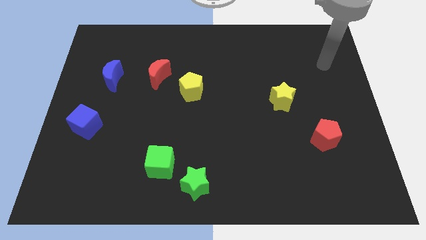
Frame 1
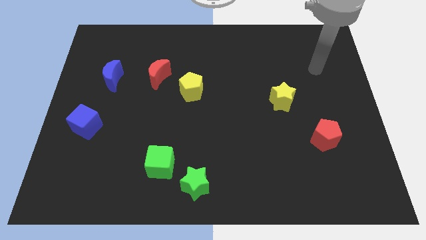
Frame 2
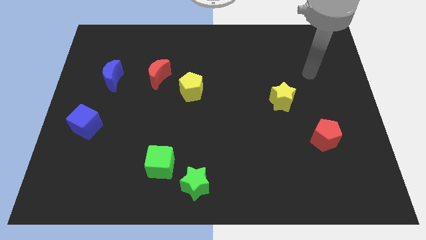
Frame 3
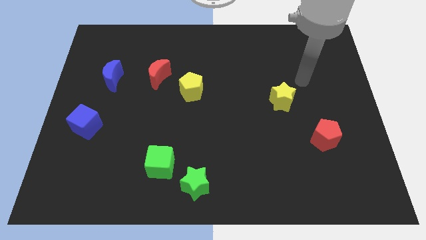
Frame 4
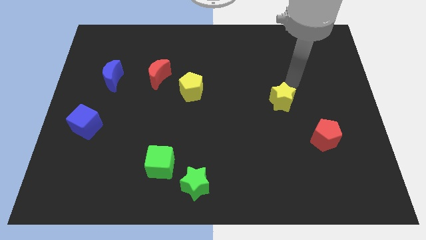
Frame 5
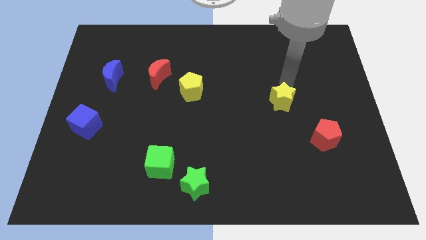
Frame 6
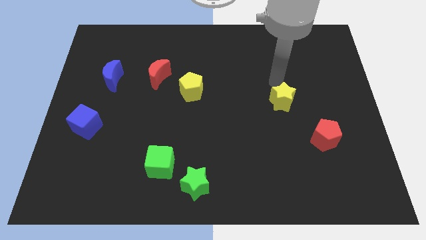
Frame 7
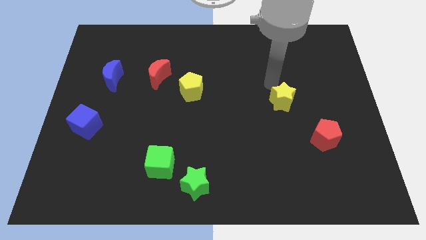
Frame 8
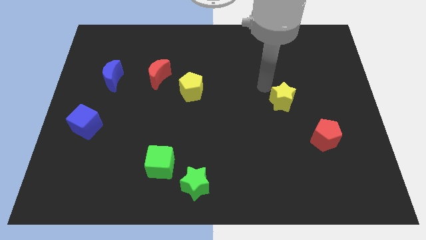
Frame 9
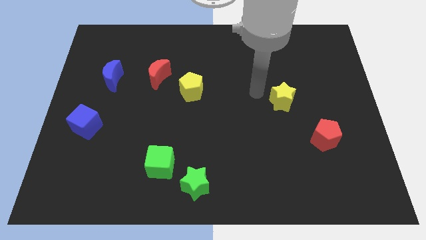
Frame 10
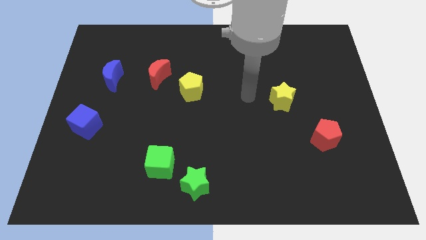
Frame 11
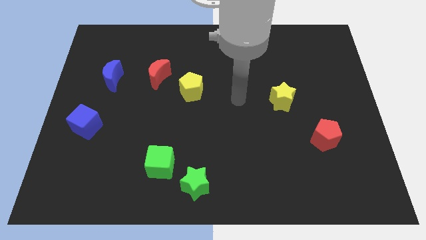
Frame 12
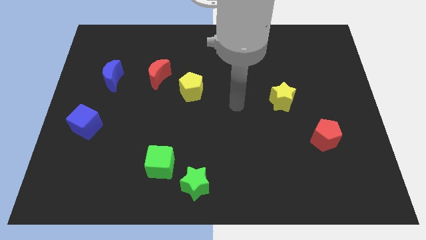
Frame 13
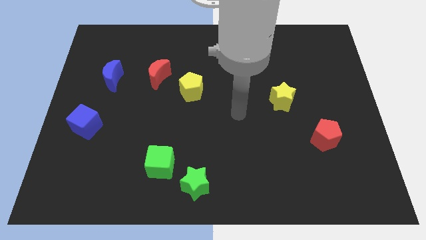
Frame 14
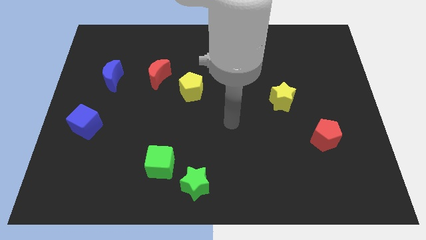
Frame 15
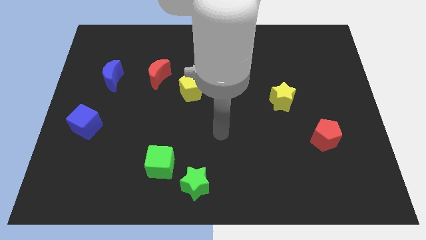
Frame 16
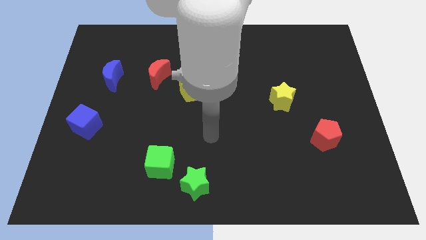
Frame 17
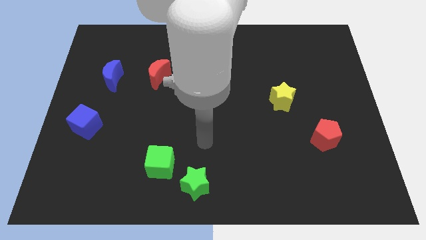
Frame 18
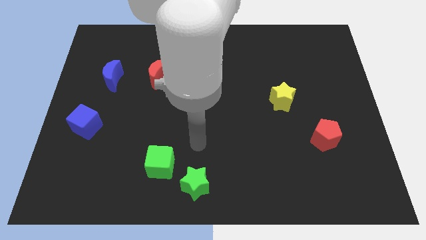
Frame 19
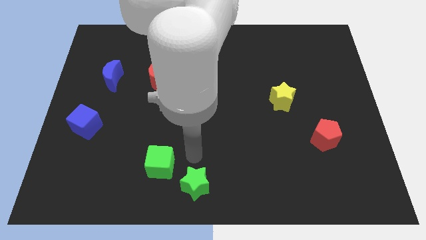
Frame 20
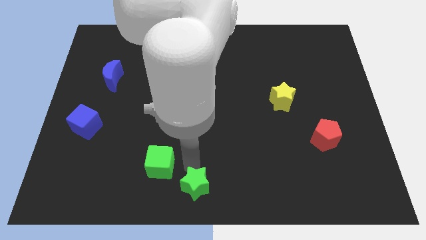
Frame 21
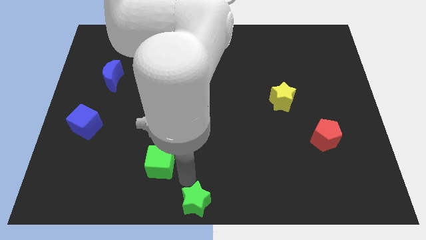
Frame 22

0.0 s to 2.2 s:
separate the green cube from the green star

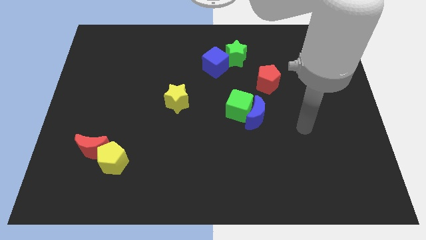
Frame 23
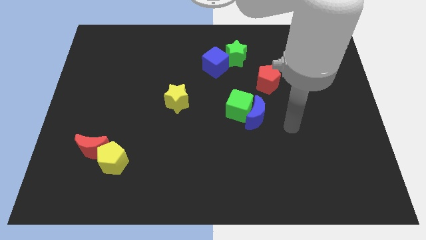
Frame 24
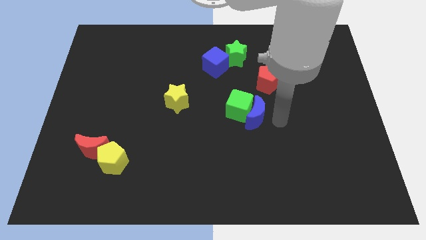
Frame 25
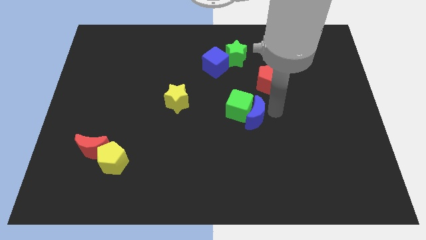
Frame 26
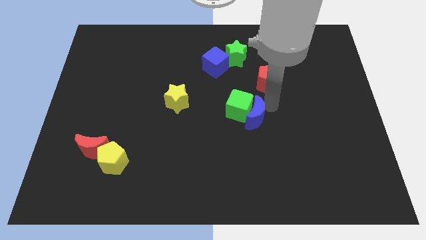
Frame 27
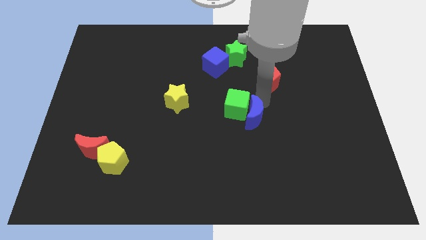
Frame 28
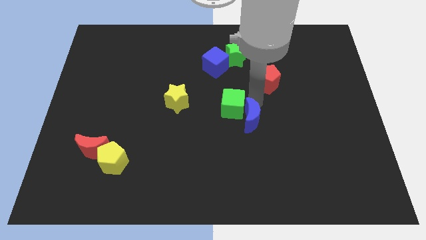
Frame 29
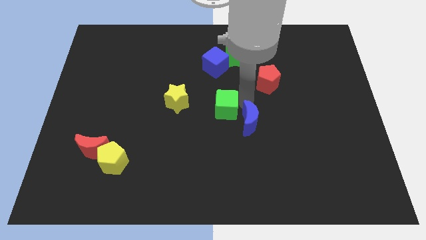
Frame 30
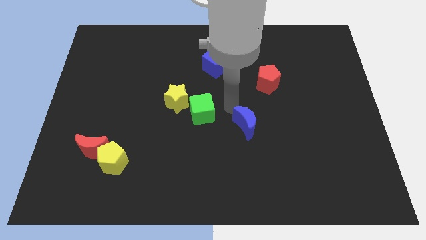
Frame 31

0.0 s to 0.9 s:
pull the blue moon apart from the green cube

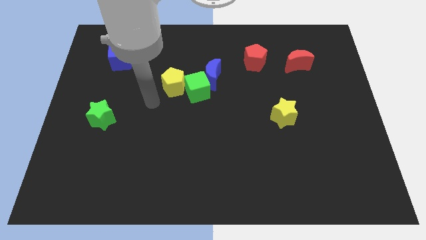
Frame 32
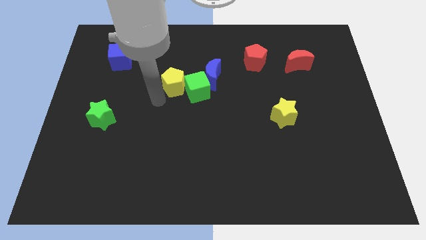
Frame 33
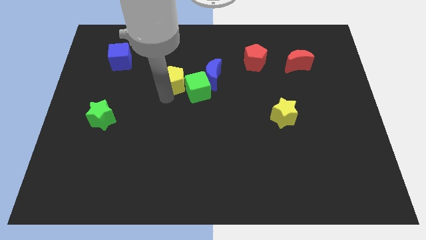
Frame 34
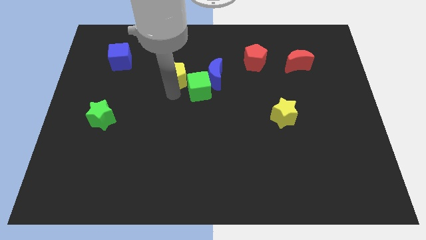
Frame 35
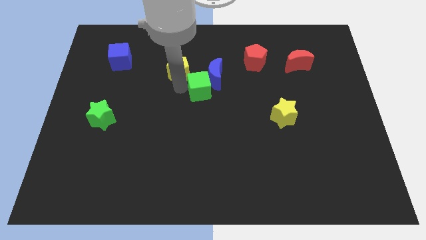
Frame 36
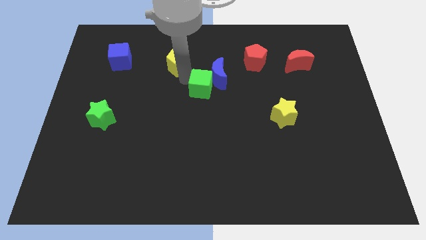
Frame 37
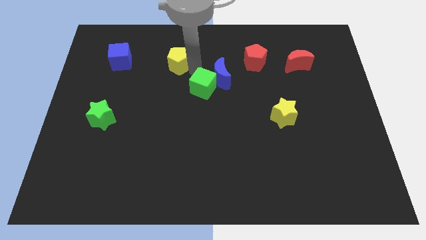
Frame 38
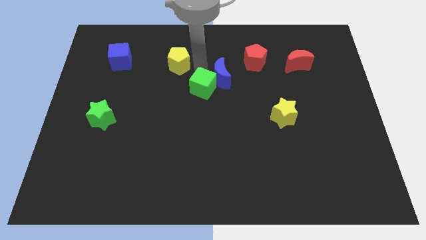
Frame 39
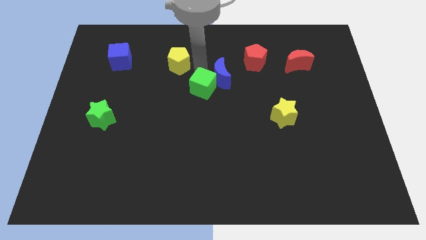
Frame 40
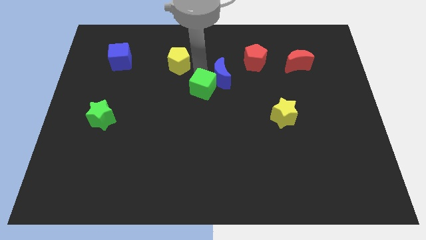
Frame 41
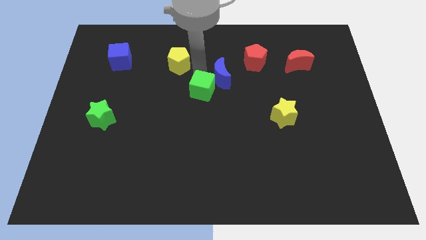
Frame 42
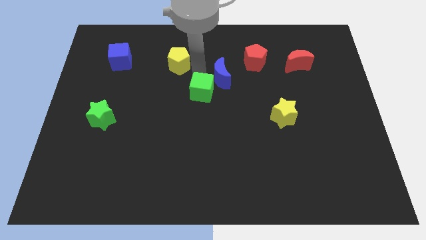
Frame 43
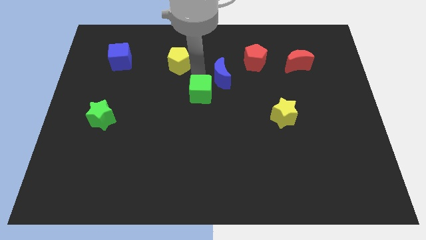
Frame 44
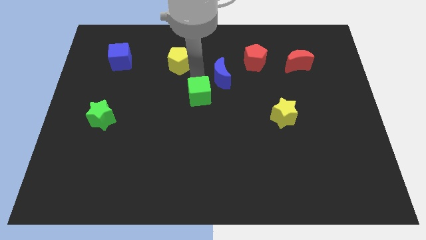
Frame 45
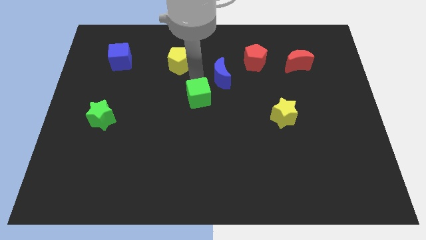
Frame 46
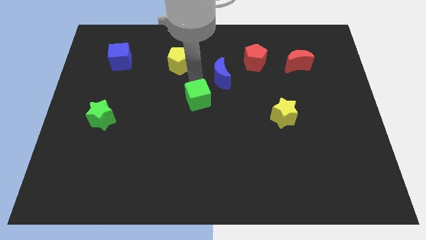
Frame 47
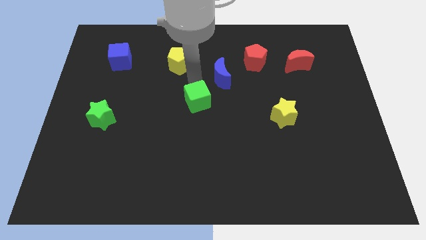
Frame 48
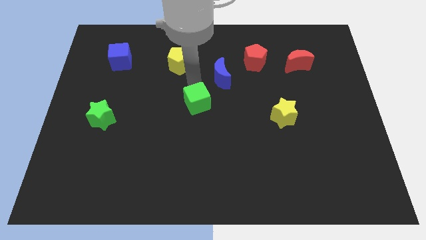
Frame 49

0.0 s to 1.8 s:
pull the green cube apart from the blue moon and yellow pentagon

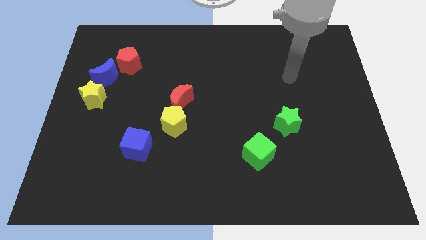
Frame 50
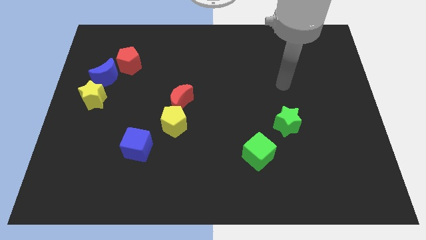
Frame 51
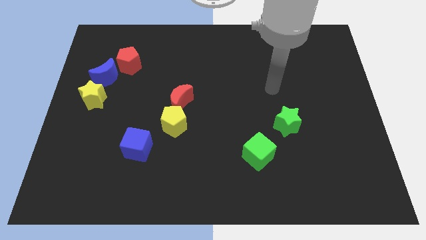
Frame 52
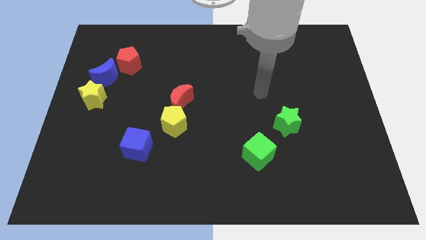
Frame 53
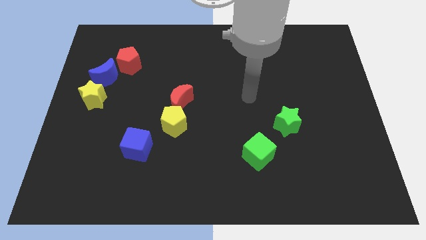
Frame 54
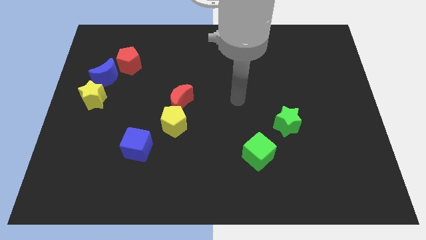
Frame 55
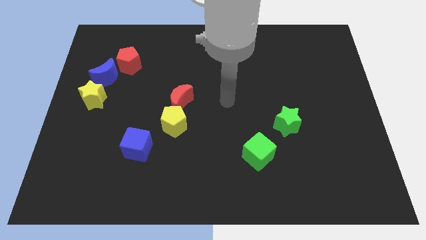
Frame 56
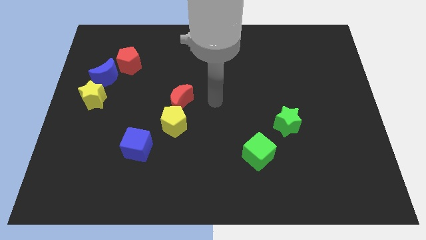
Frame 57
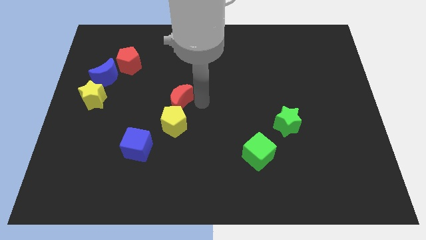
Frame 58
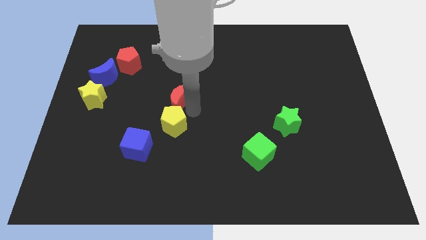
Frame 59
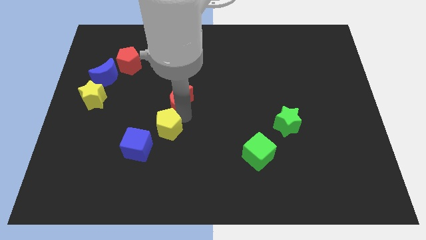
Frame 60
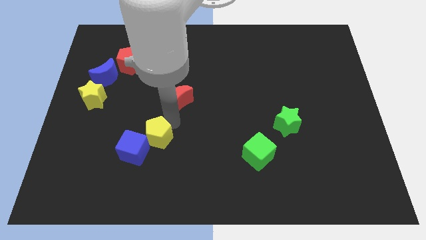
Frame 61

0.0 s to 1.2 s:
move the red moon away from the yellow pentagon

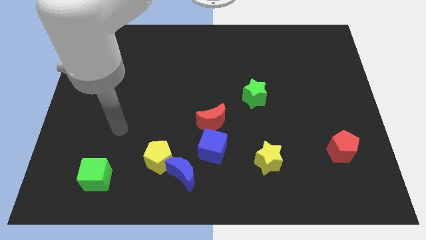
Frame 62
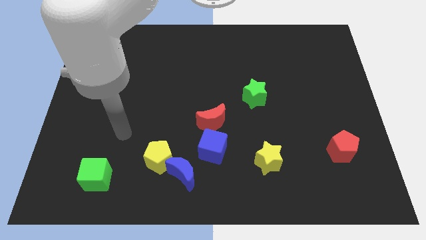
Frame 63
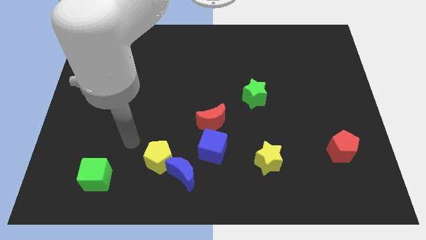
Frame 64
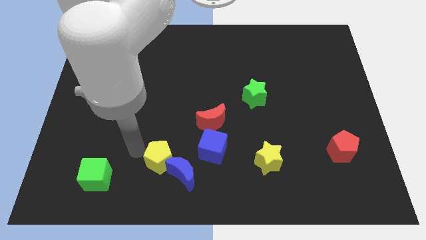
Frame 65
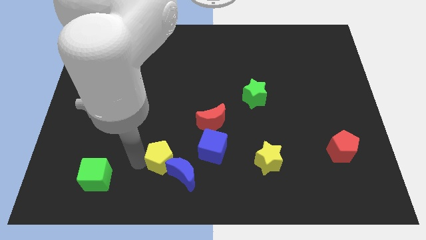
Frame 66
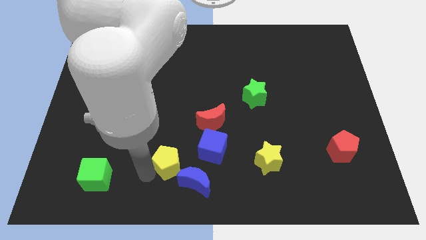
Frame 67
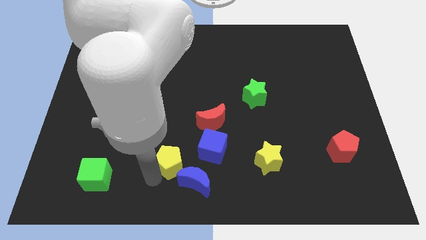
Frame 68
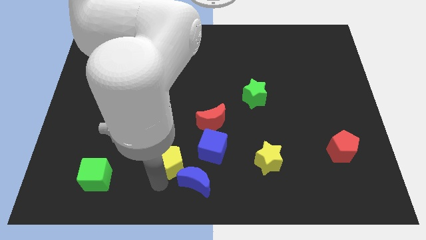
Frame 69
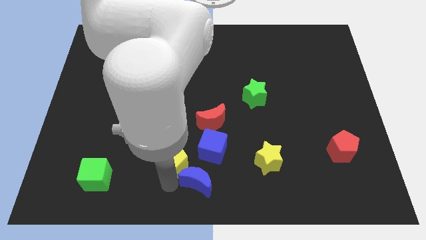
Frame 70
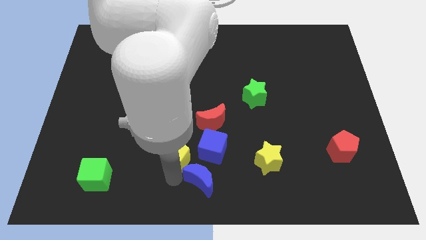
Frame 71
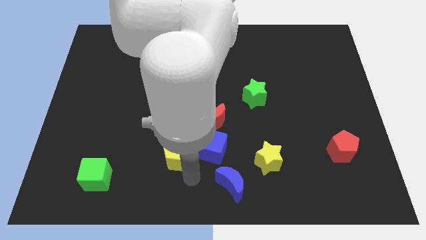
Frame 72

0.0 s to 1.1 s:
separate the yellow pentagon from the blue moon

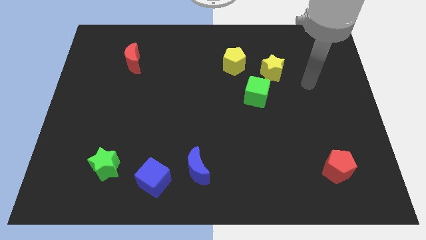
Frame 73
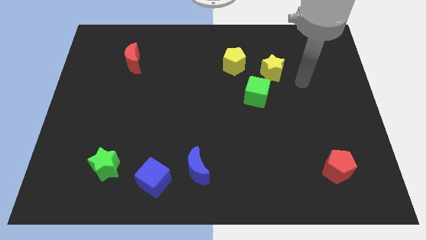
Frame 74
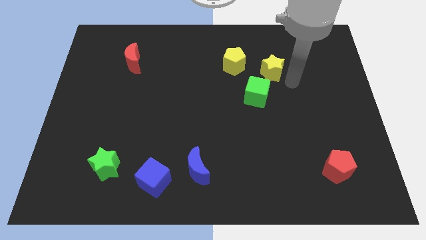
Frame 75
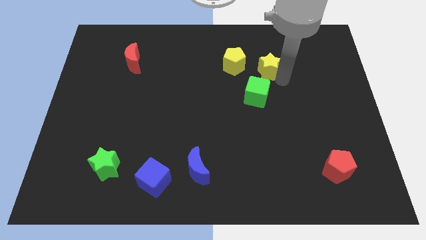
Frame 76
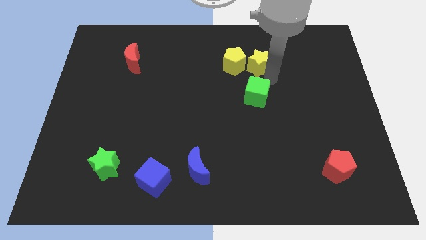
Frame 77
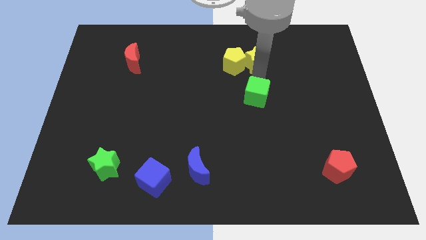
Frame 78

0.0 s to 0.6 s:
move the green cube away from the yellow star

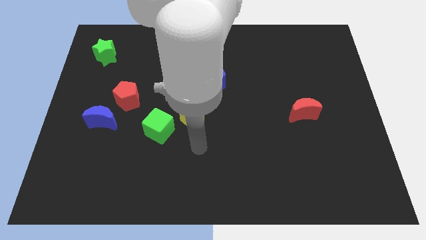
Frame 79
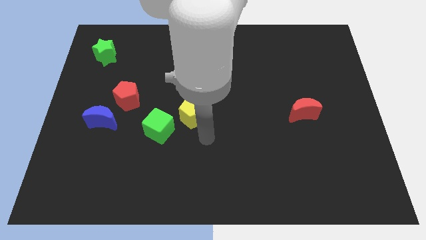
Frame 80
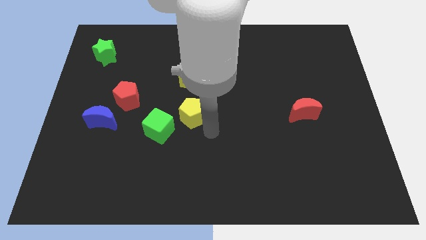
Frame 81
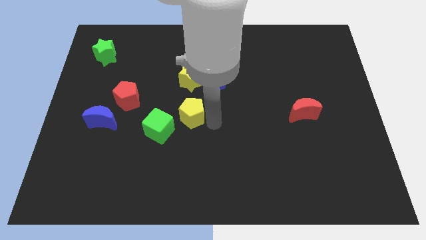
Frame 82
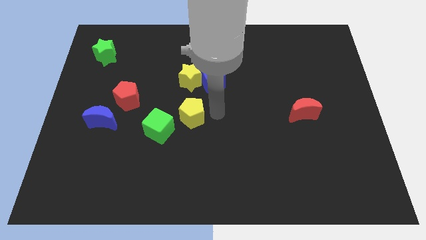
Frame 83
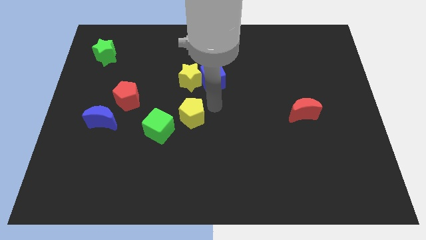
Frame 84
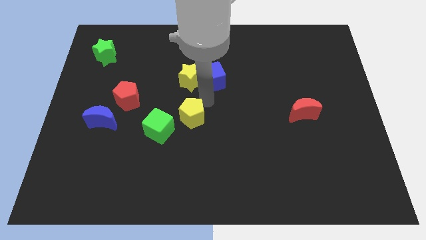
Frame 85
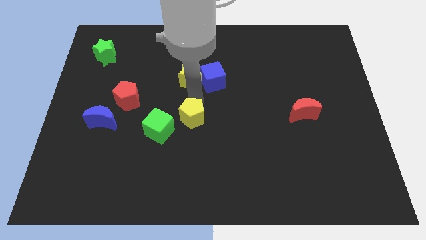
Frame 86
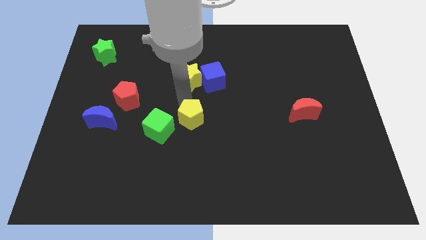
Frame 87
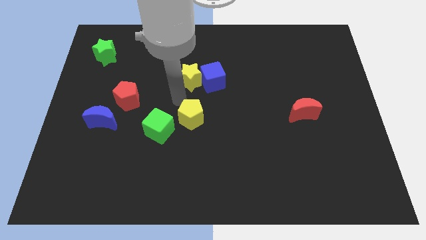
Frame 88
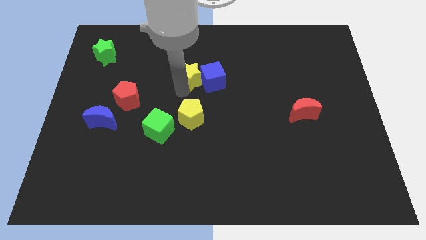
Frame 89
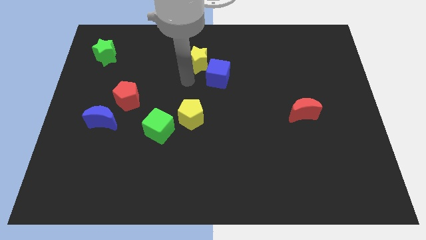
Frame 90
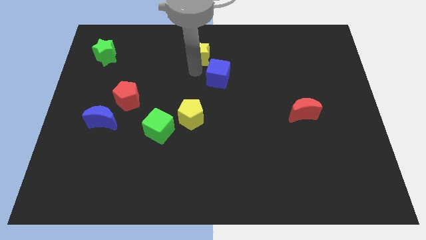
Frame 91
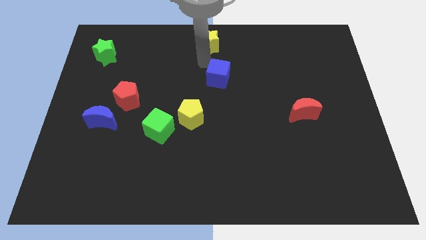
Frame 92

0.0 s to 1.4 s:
move the blue cube away from the yellow star

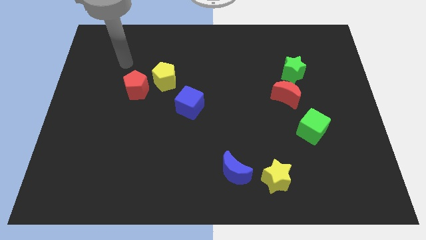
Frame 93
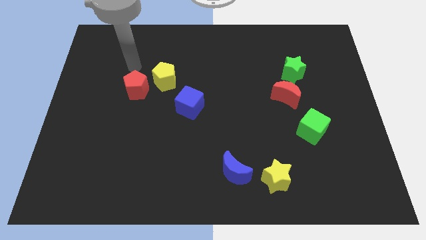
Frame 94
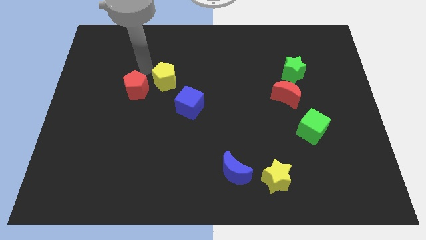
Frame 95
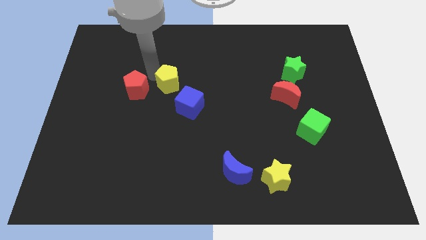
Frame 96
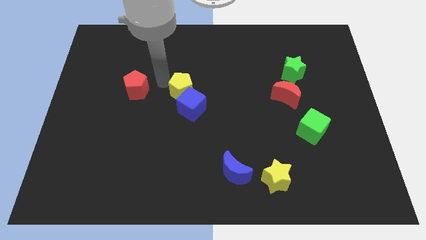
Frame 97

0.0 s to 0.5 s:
move the red pentagon away from the yellow pentagon
